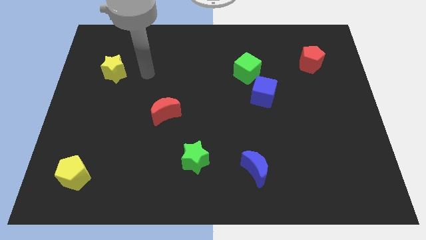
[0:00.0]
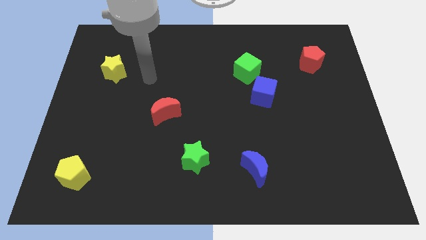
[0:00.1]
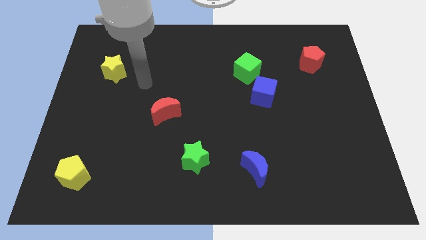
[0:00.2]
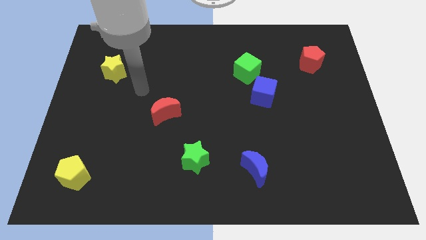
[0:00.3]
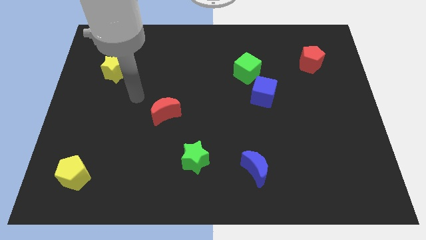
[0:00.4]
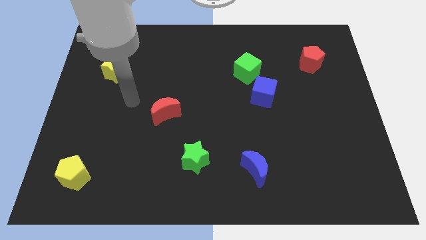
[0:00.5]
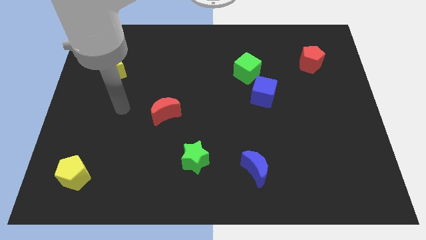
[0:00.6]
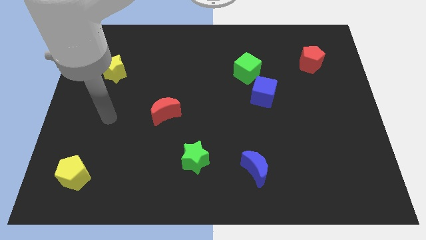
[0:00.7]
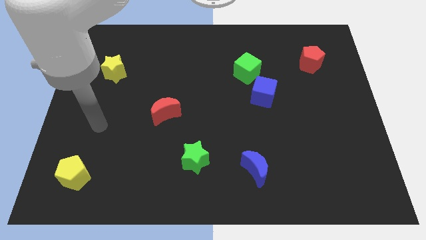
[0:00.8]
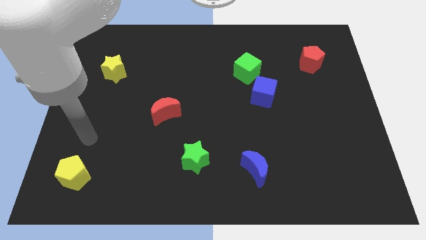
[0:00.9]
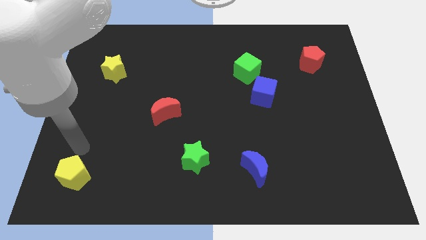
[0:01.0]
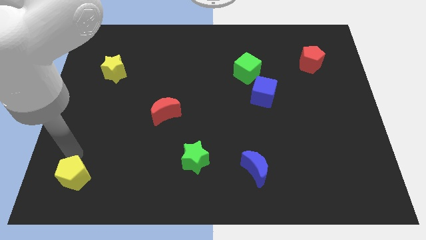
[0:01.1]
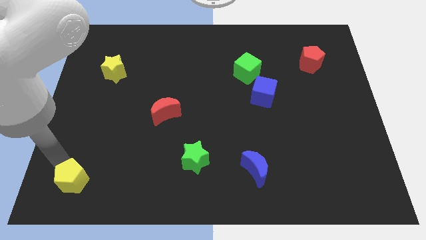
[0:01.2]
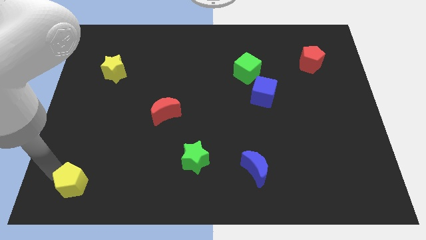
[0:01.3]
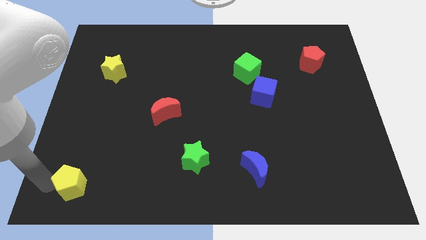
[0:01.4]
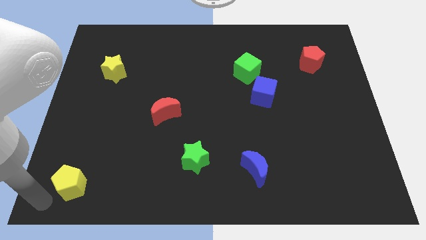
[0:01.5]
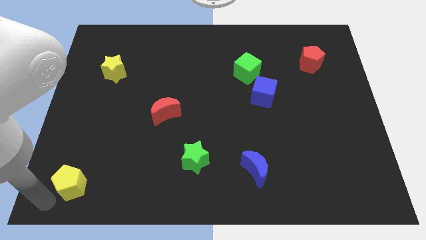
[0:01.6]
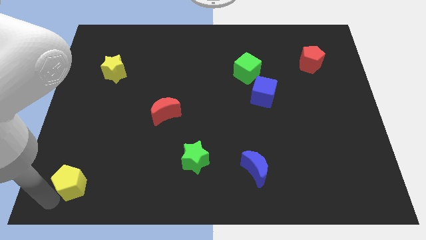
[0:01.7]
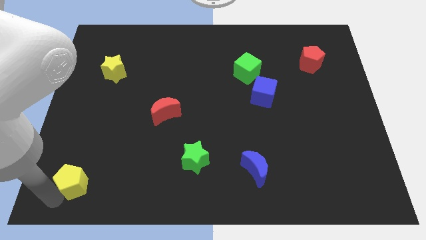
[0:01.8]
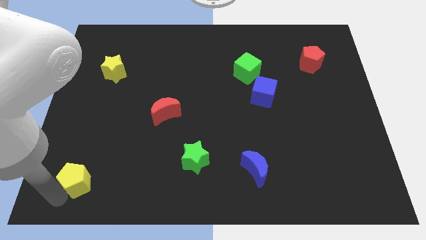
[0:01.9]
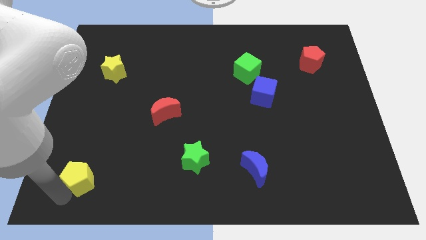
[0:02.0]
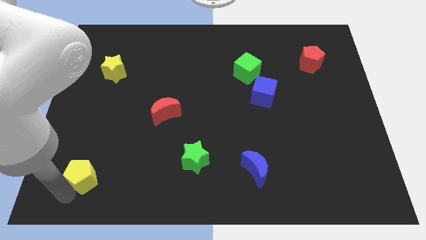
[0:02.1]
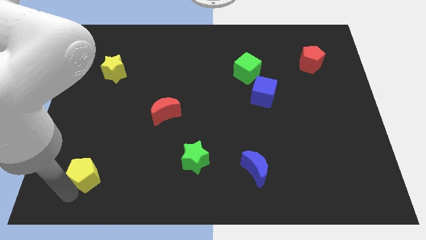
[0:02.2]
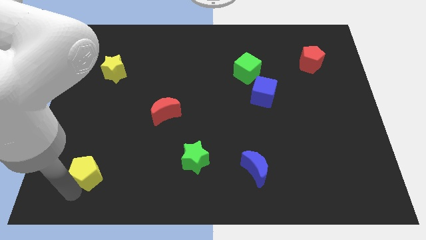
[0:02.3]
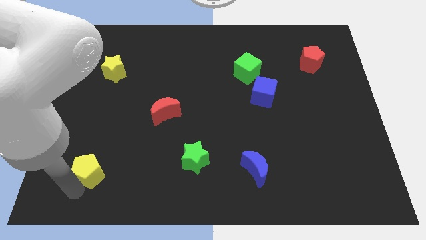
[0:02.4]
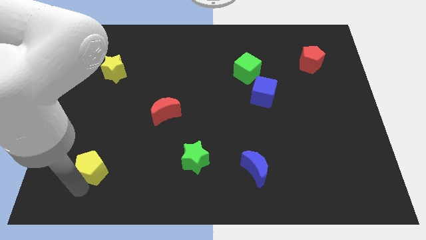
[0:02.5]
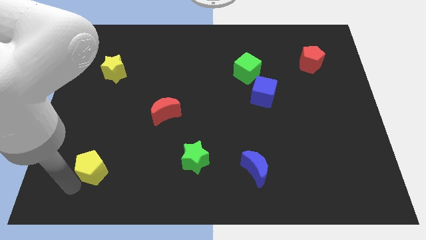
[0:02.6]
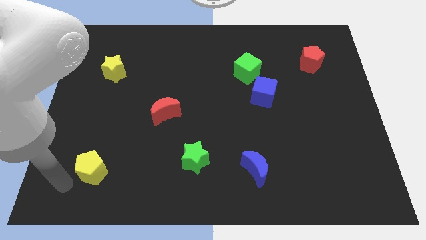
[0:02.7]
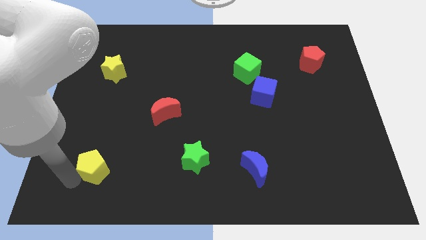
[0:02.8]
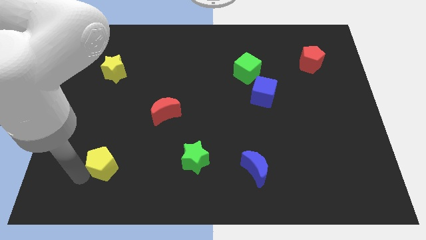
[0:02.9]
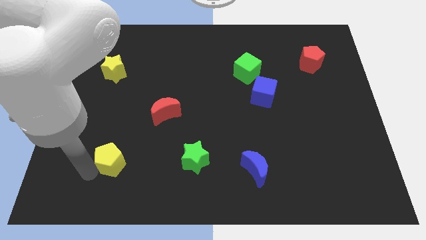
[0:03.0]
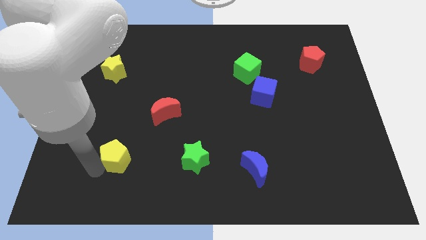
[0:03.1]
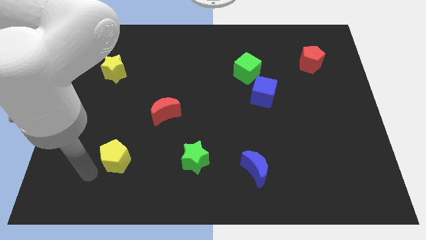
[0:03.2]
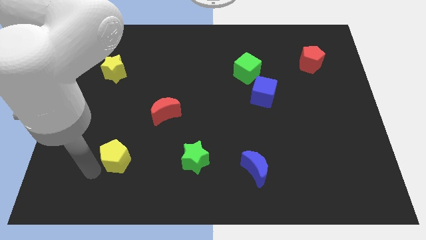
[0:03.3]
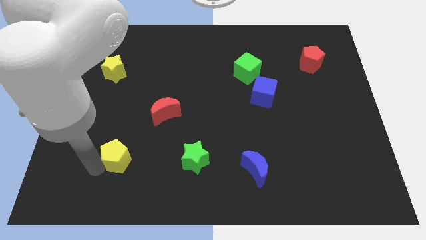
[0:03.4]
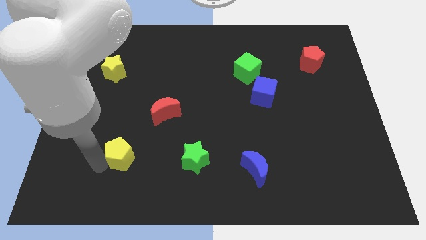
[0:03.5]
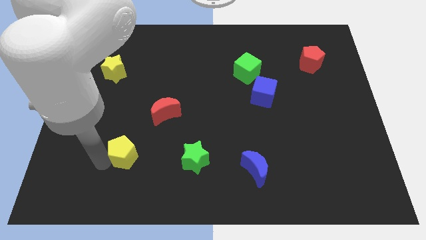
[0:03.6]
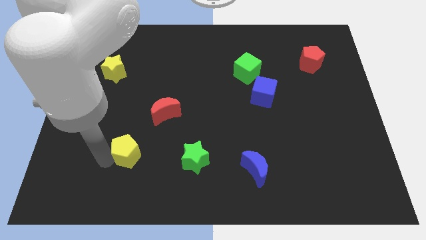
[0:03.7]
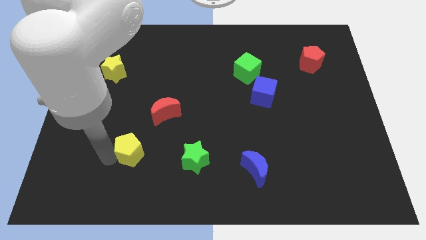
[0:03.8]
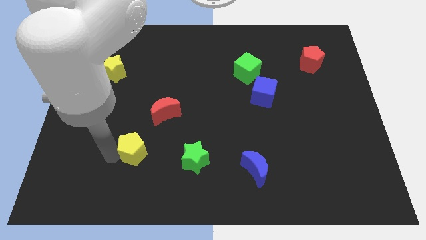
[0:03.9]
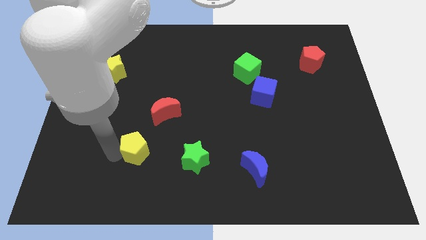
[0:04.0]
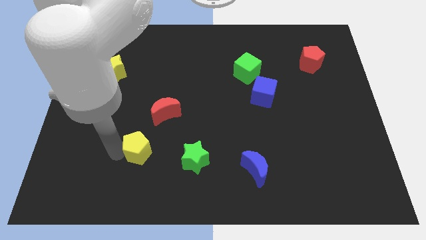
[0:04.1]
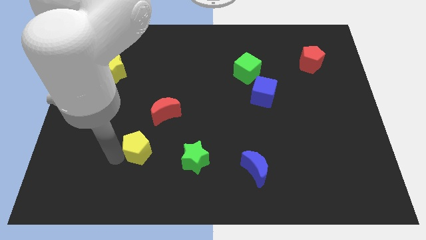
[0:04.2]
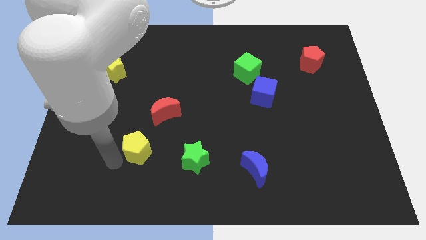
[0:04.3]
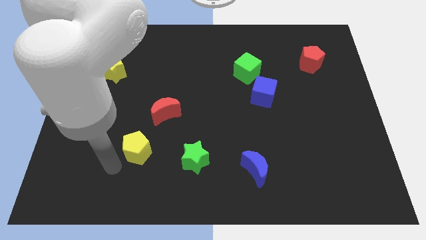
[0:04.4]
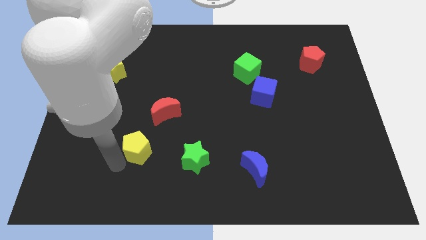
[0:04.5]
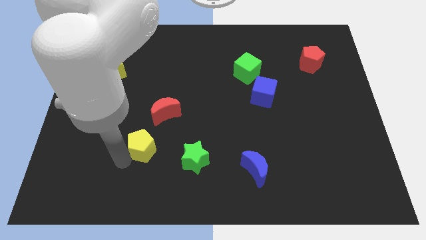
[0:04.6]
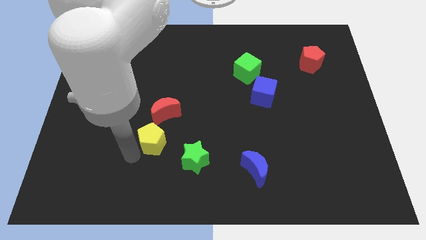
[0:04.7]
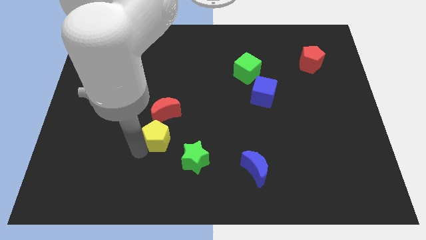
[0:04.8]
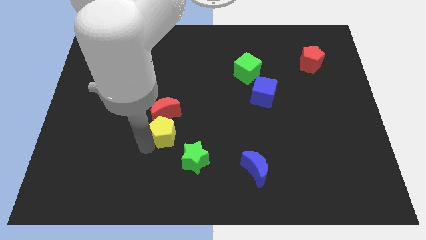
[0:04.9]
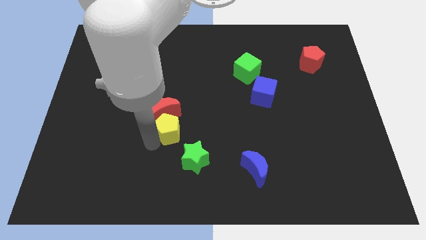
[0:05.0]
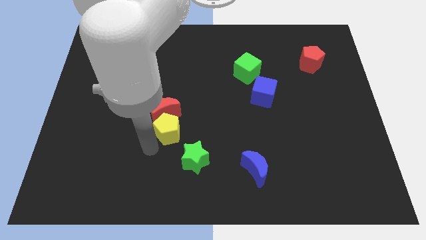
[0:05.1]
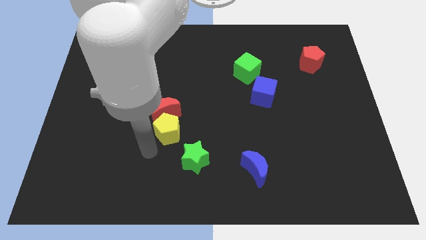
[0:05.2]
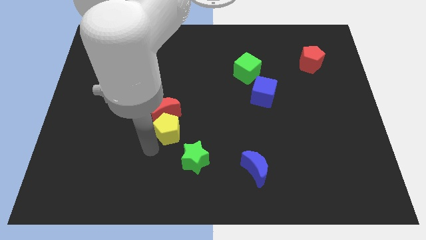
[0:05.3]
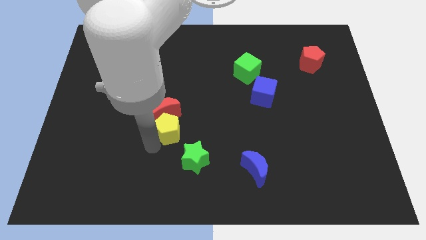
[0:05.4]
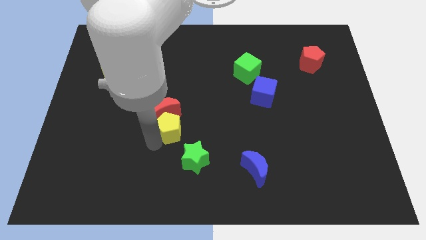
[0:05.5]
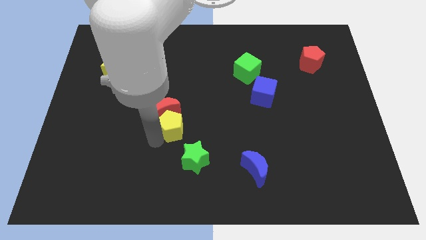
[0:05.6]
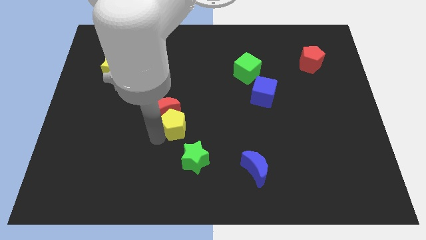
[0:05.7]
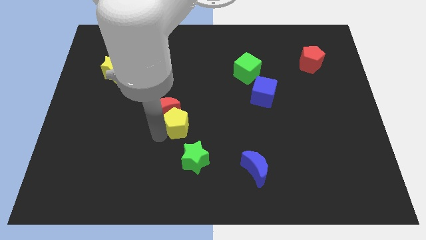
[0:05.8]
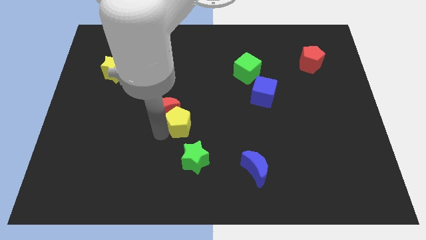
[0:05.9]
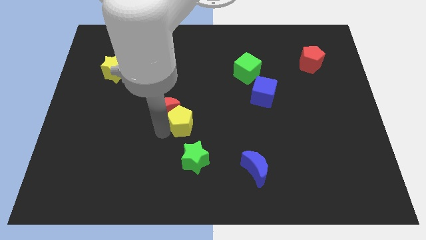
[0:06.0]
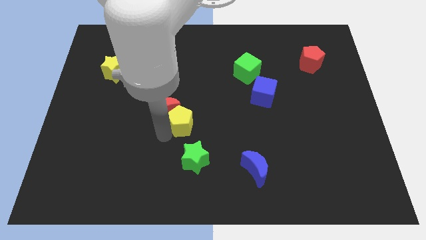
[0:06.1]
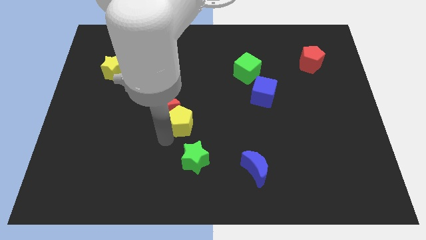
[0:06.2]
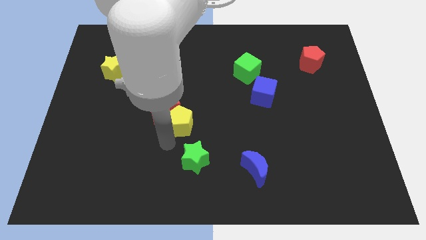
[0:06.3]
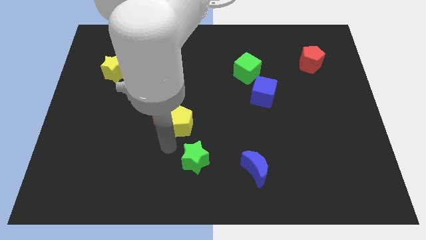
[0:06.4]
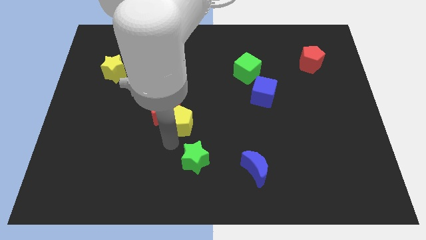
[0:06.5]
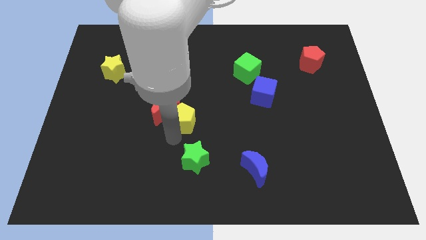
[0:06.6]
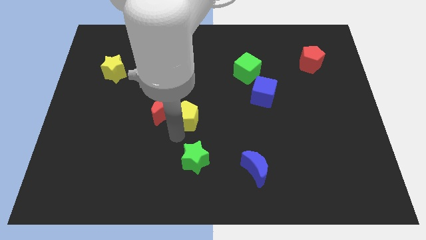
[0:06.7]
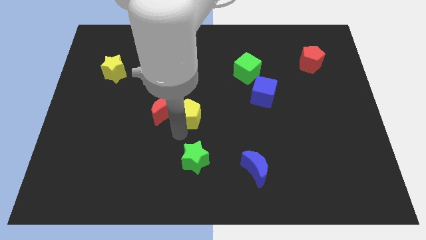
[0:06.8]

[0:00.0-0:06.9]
push the yellow pentagon to the top right side of the red moon
